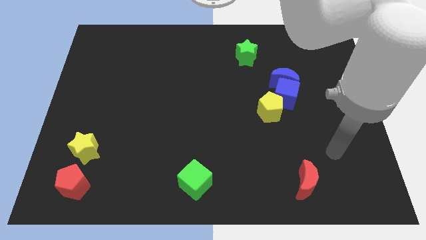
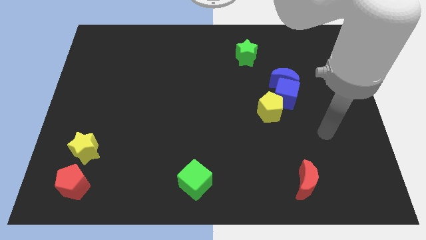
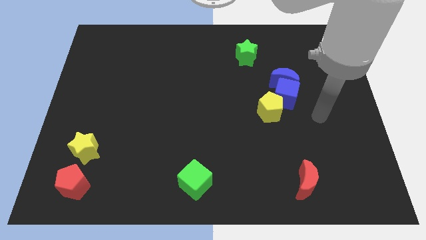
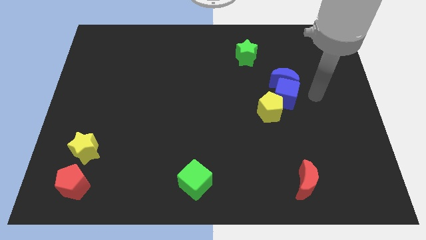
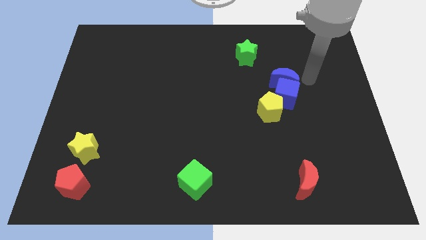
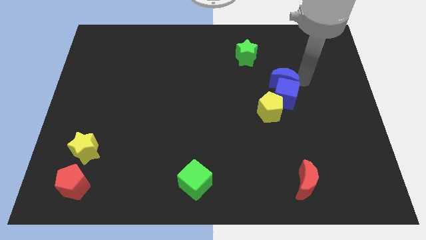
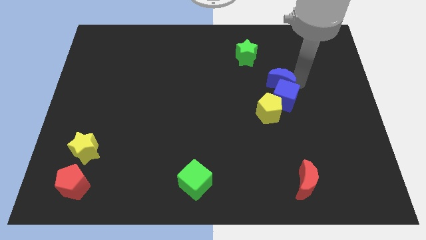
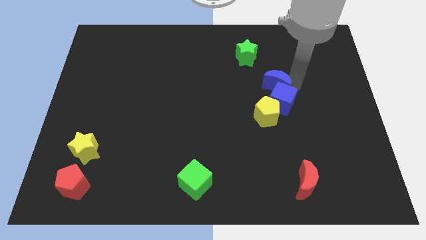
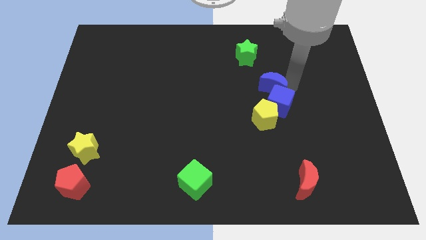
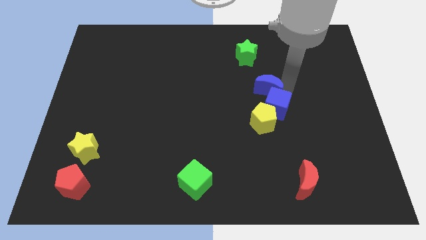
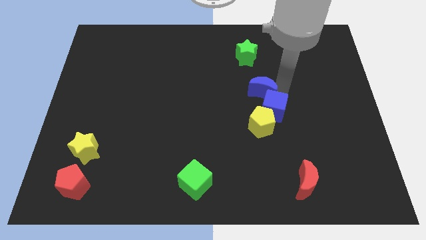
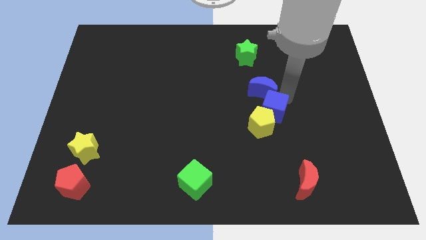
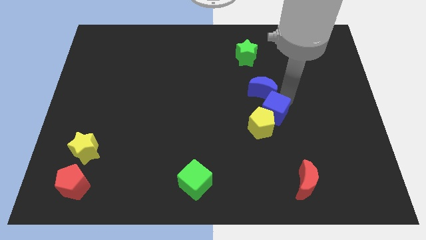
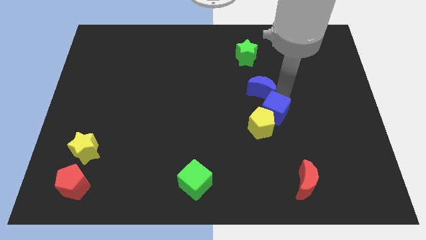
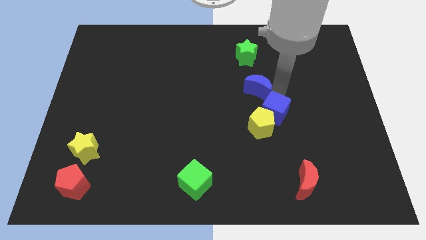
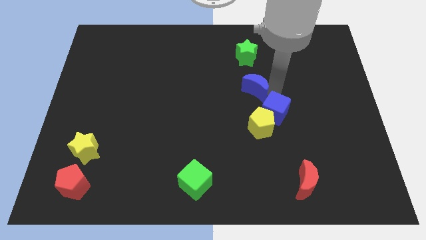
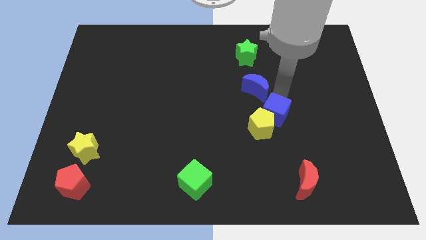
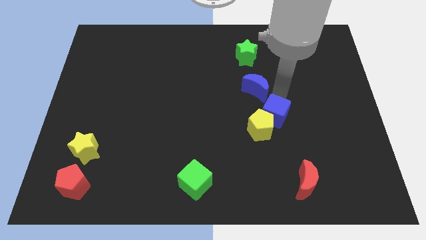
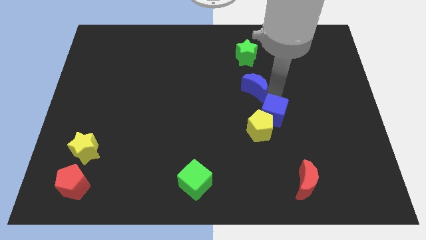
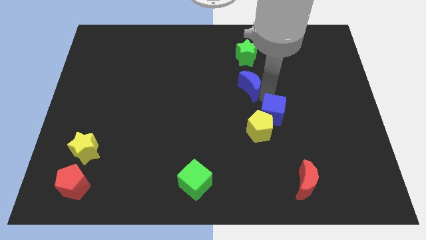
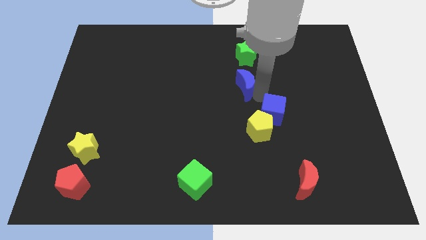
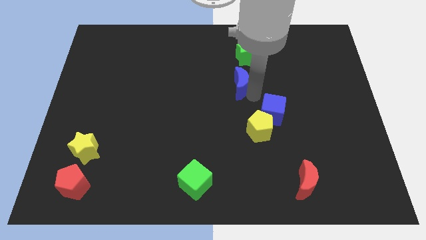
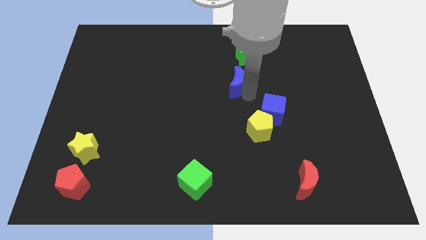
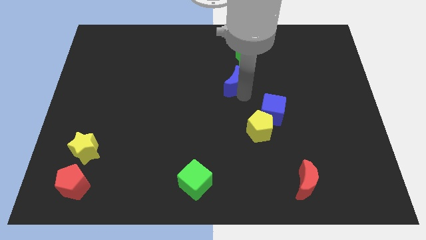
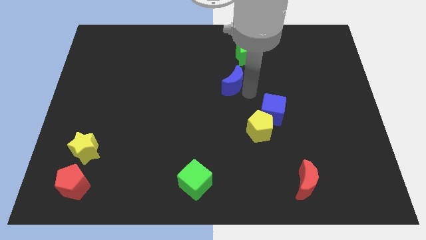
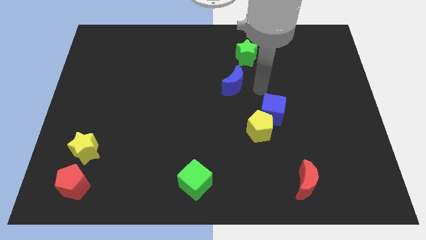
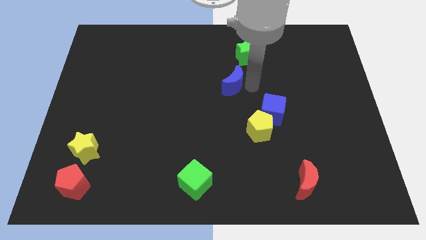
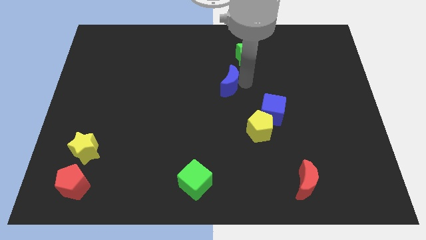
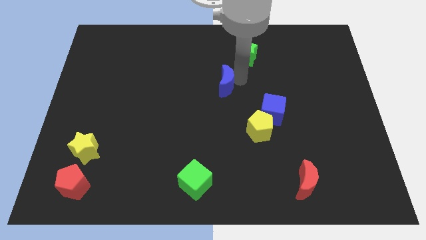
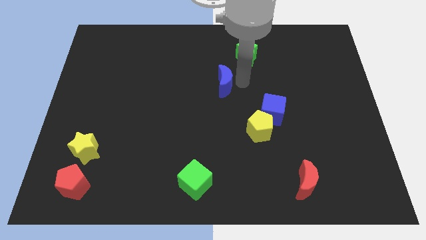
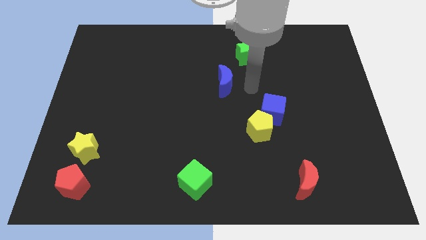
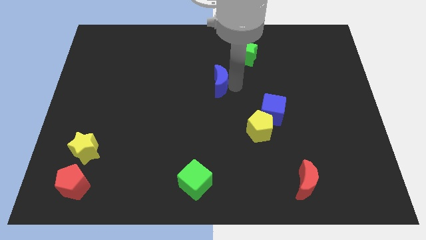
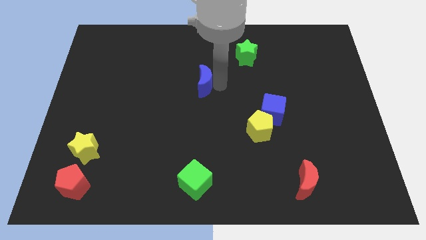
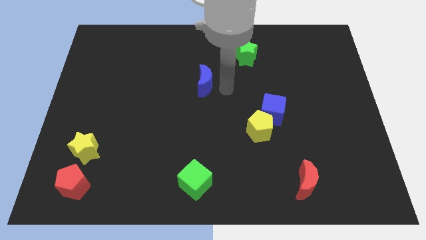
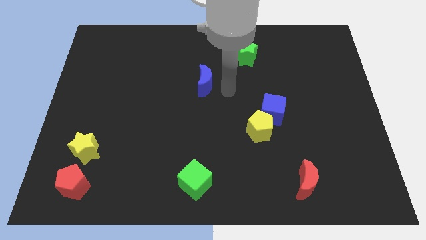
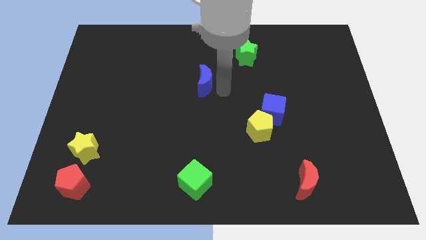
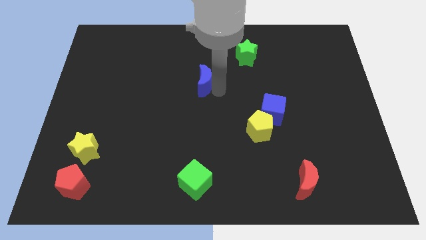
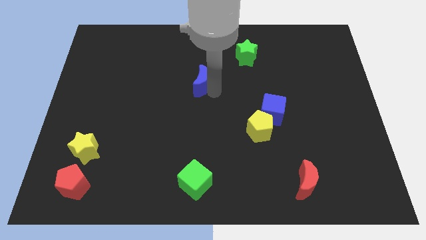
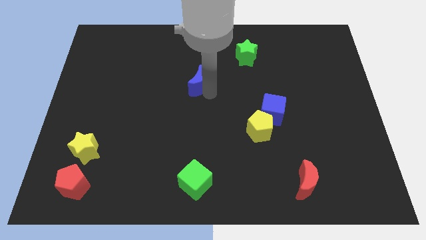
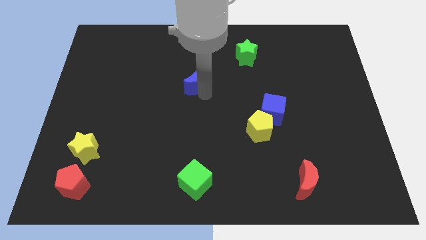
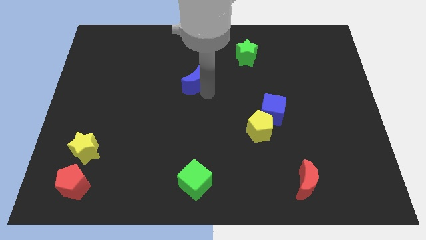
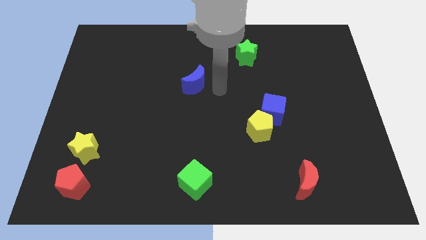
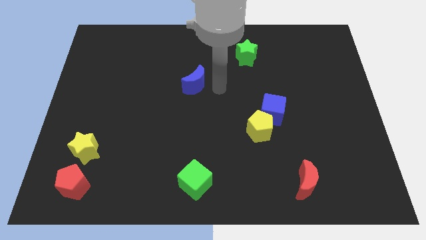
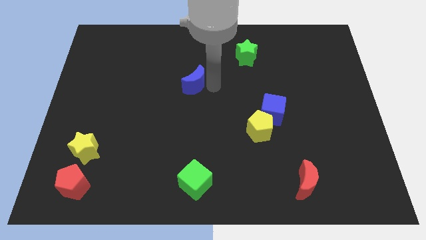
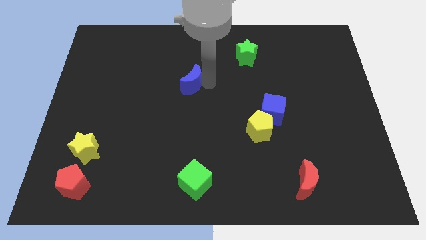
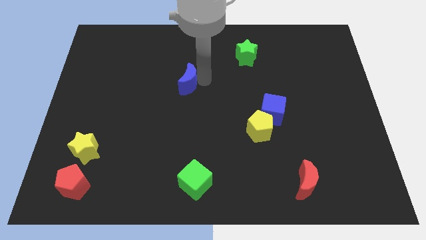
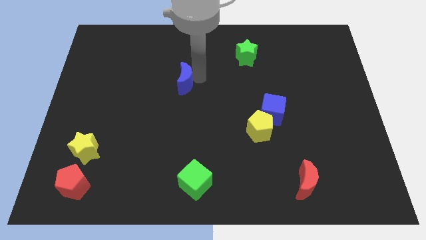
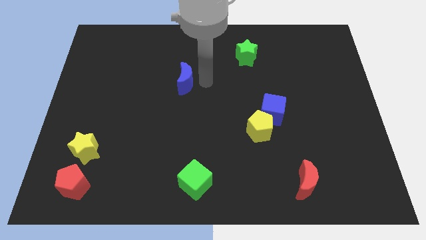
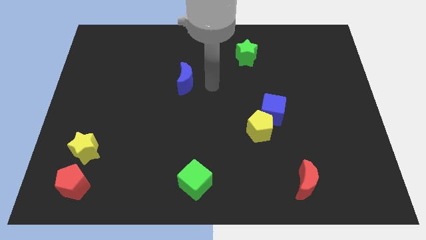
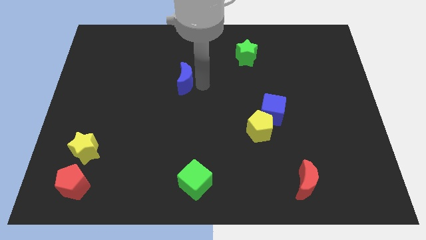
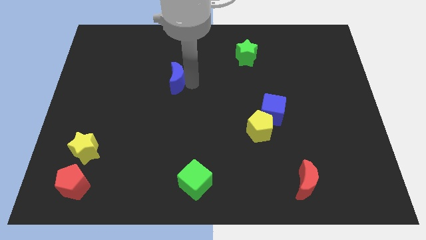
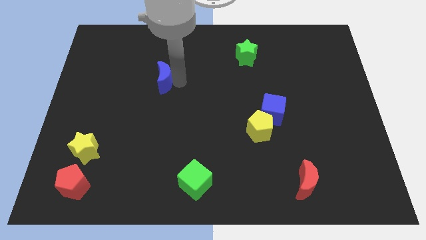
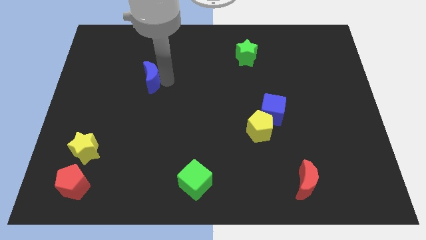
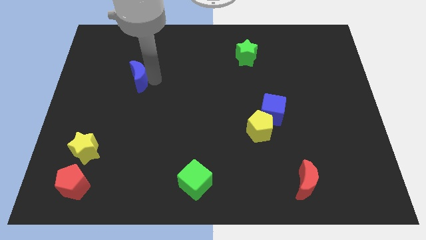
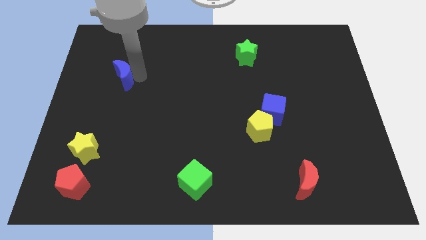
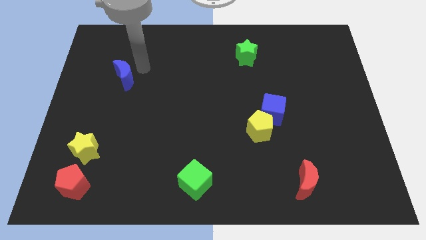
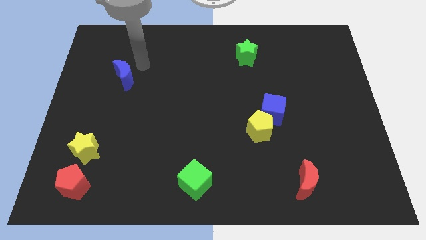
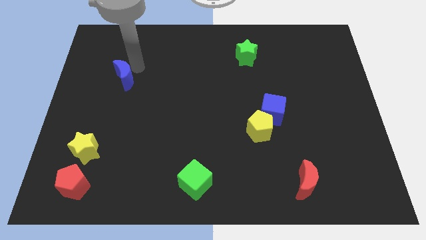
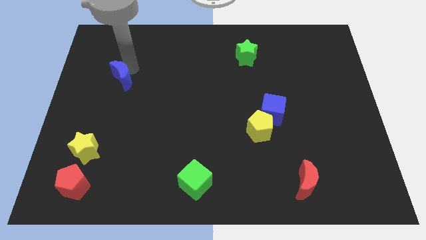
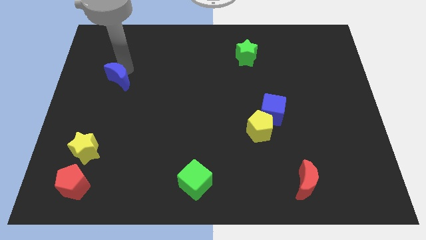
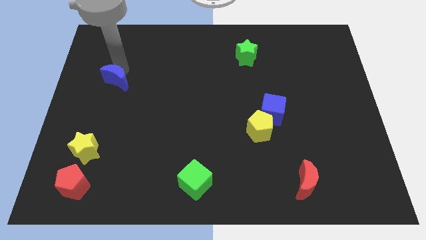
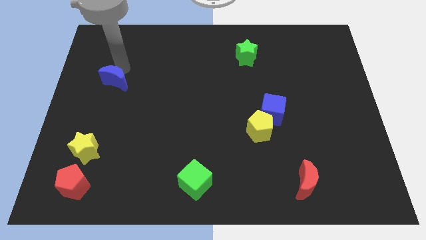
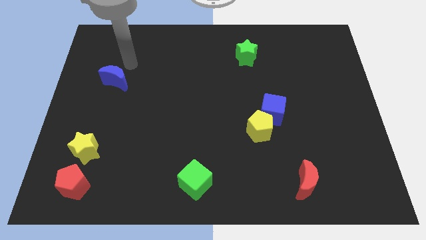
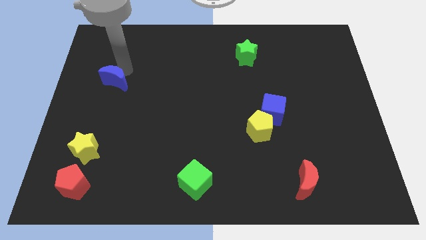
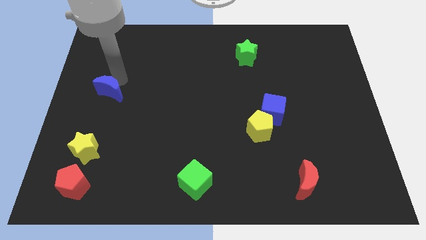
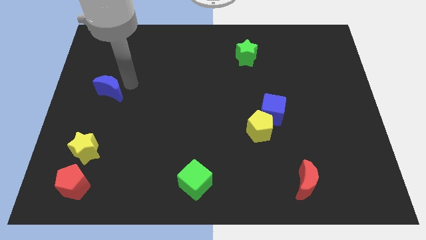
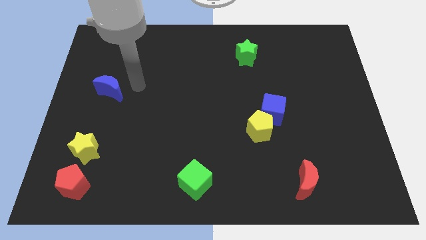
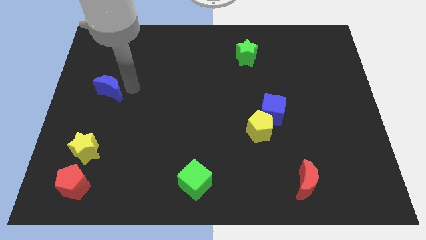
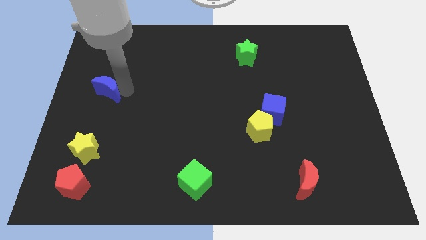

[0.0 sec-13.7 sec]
push the blue moon to the center left
